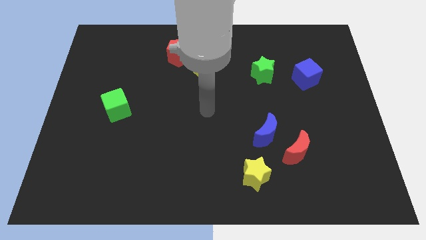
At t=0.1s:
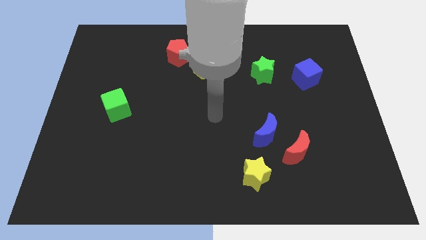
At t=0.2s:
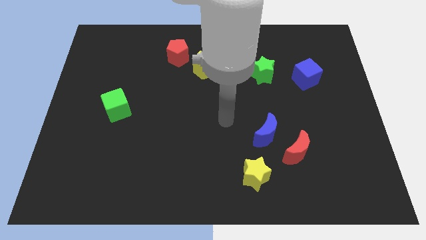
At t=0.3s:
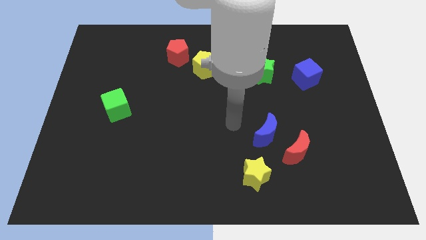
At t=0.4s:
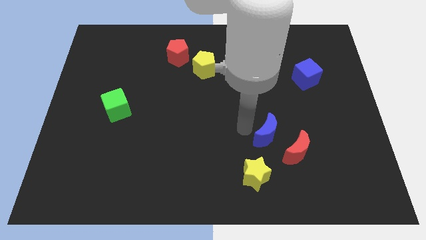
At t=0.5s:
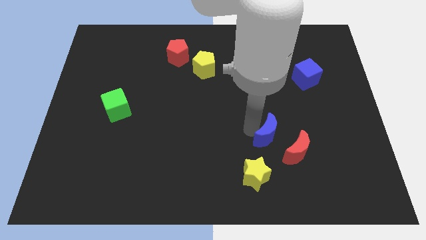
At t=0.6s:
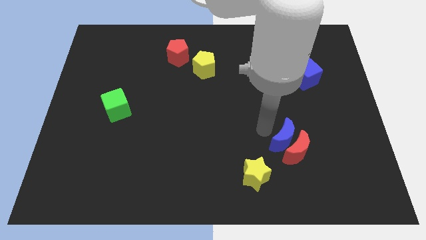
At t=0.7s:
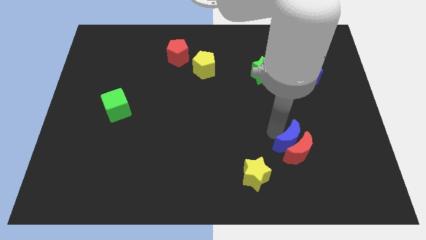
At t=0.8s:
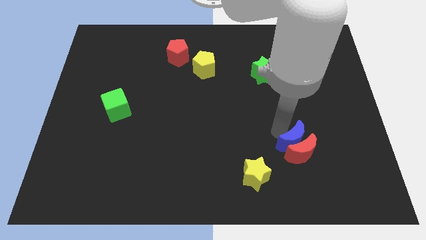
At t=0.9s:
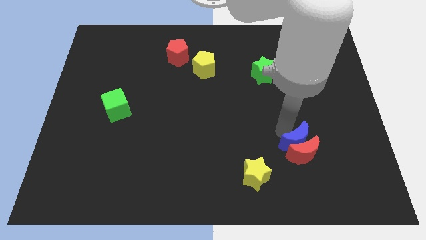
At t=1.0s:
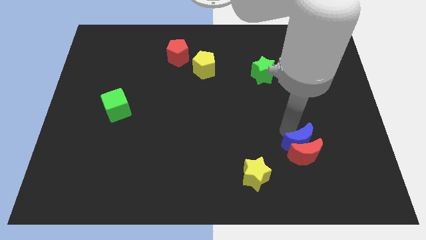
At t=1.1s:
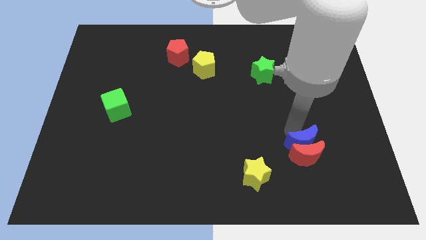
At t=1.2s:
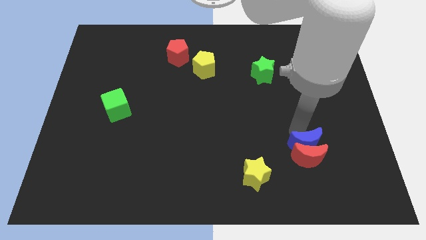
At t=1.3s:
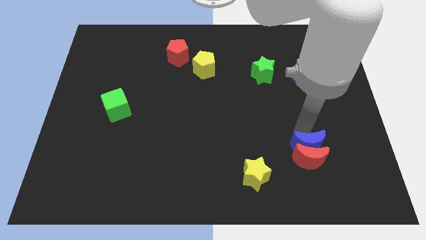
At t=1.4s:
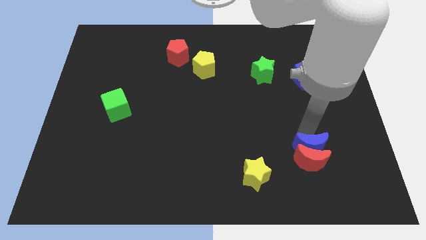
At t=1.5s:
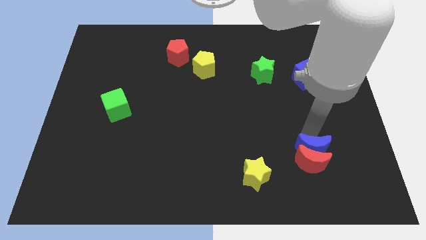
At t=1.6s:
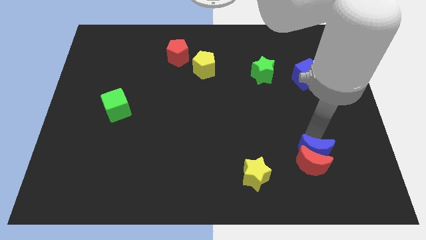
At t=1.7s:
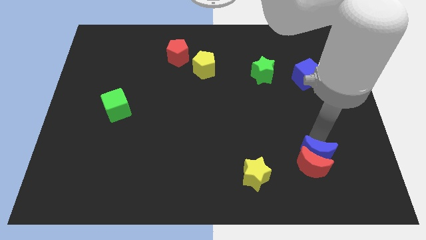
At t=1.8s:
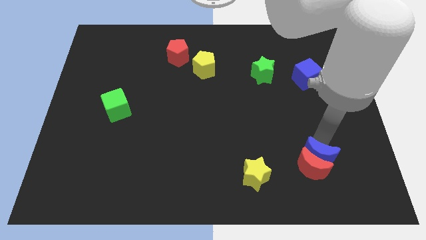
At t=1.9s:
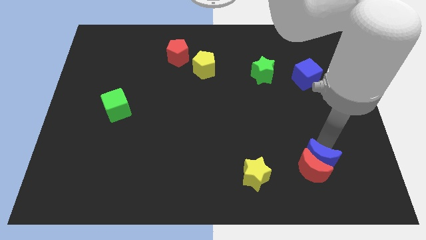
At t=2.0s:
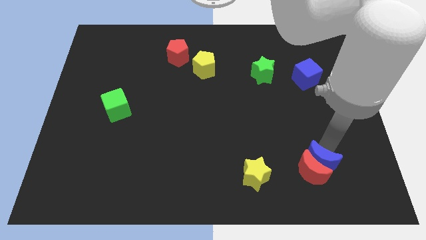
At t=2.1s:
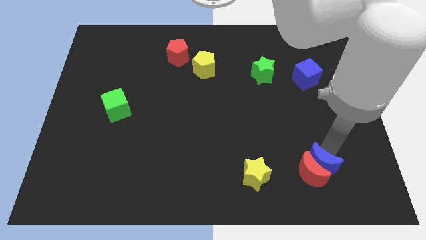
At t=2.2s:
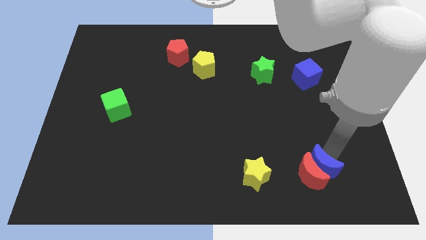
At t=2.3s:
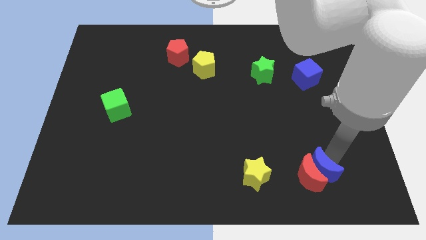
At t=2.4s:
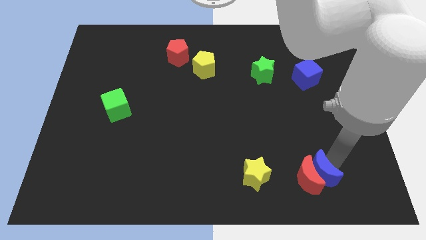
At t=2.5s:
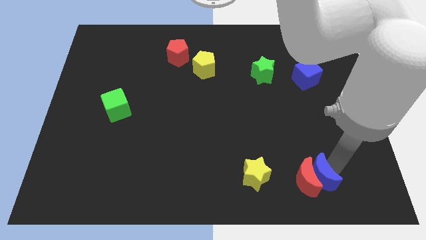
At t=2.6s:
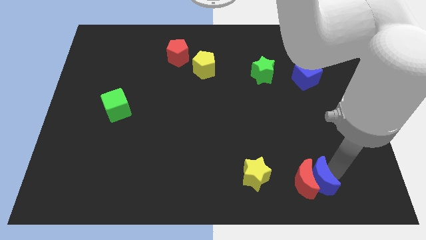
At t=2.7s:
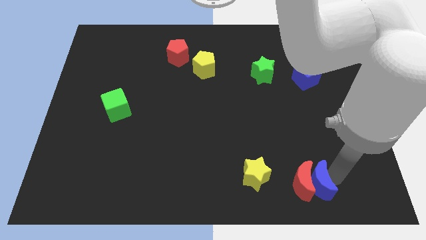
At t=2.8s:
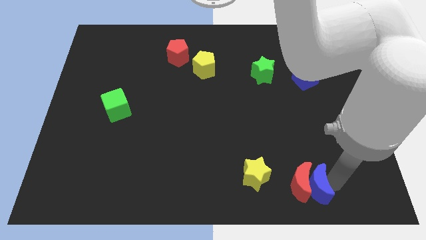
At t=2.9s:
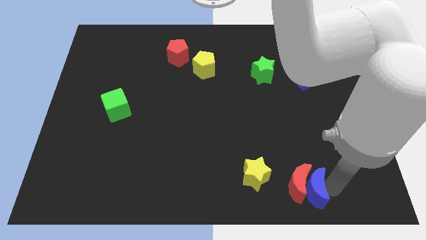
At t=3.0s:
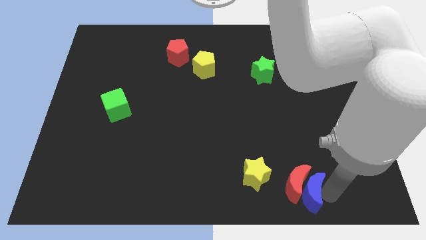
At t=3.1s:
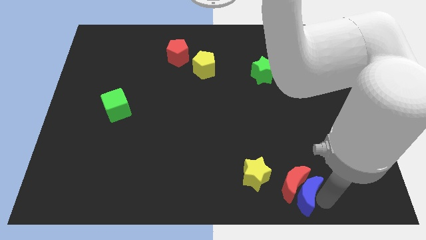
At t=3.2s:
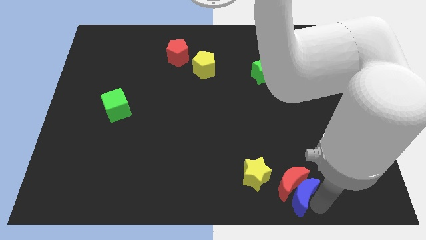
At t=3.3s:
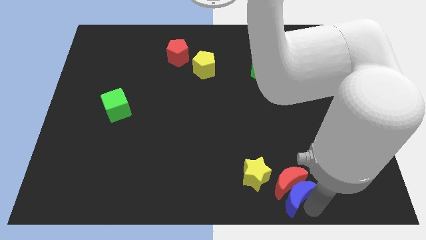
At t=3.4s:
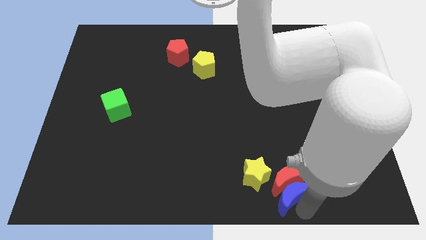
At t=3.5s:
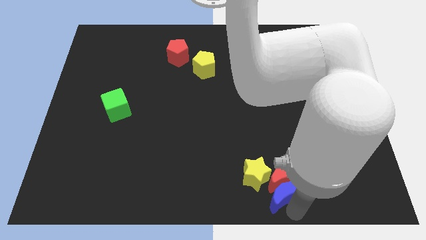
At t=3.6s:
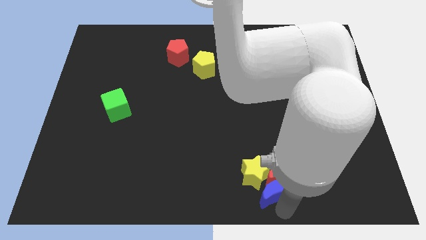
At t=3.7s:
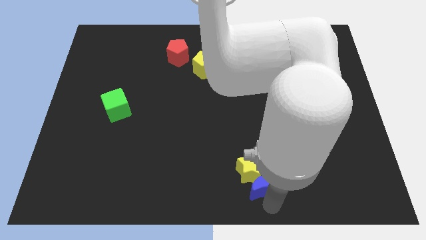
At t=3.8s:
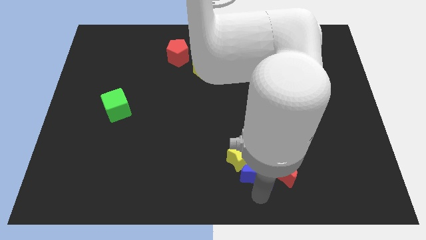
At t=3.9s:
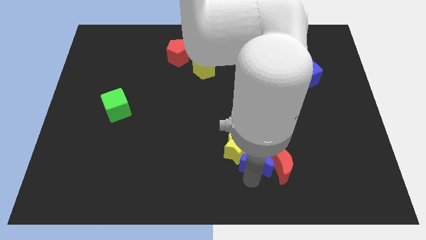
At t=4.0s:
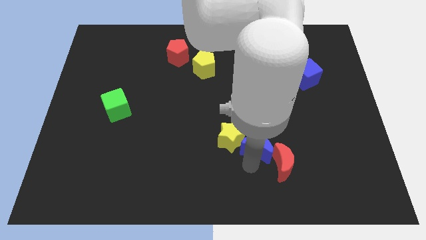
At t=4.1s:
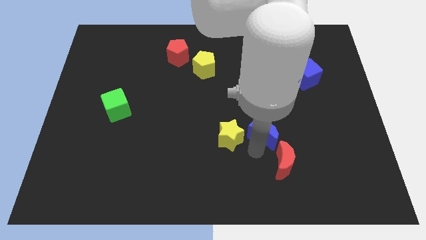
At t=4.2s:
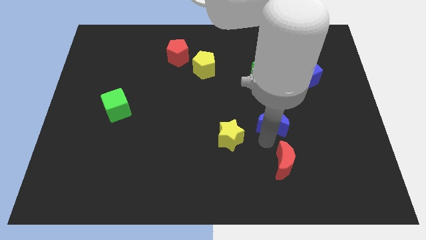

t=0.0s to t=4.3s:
separate the red moon from the blue moon

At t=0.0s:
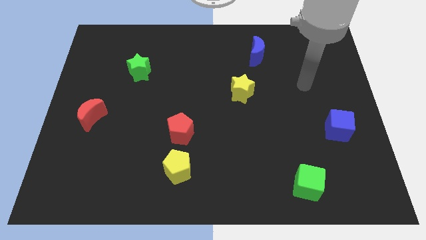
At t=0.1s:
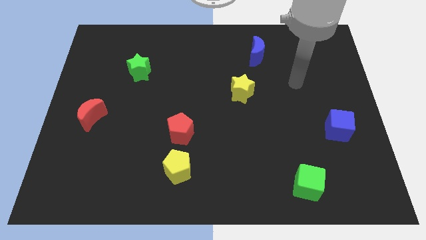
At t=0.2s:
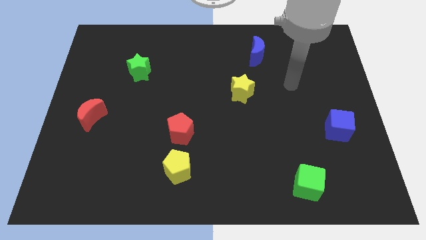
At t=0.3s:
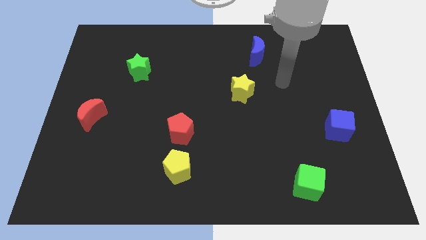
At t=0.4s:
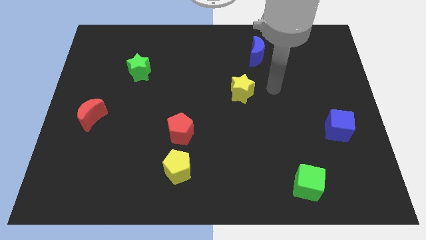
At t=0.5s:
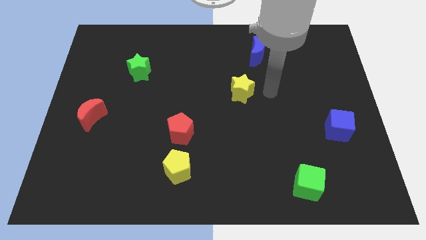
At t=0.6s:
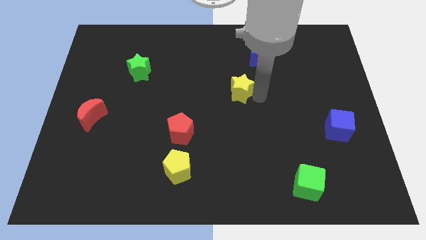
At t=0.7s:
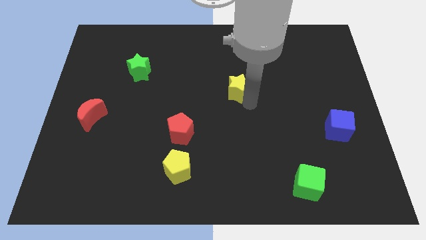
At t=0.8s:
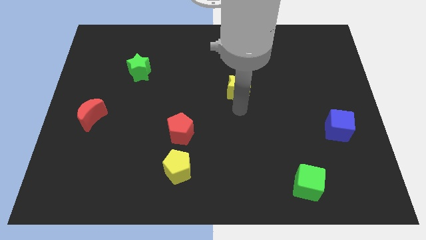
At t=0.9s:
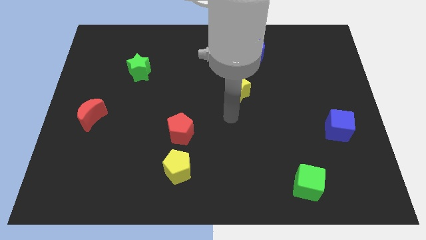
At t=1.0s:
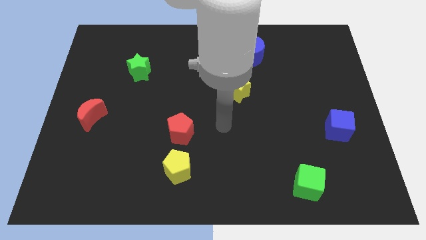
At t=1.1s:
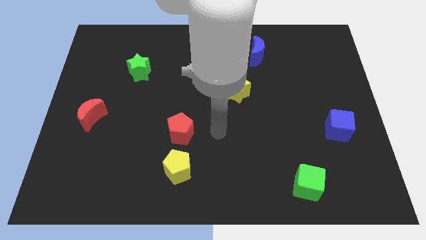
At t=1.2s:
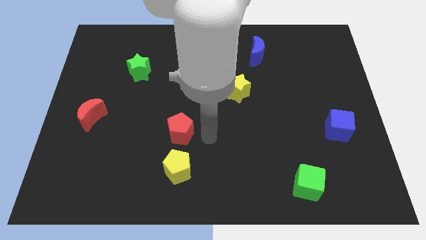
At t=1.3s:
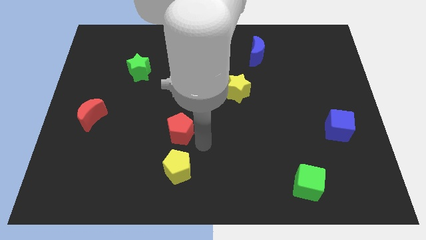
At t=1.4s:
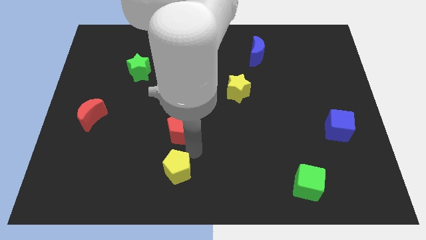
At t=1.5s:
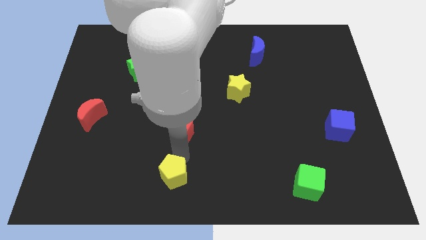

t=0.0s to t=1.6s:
pull the red pentagon apart from the yellow pentagon

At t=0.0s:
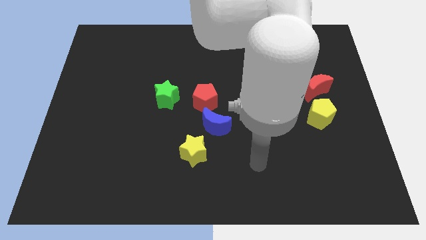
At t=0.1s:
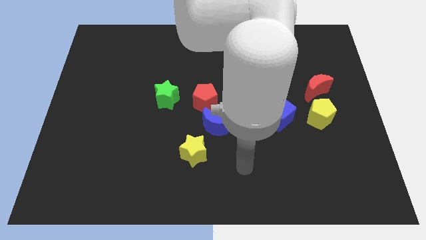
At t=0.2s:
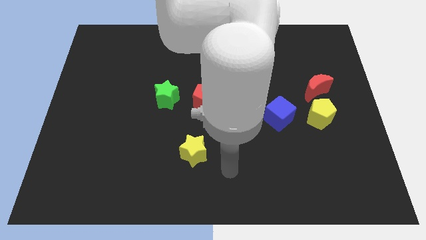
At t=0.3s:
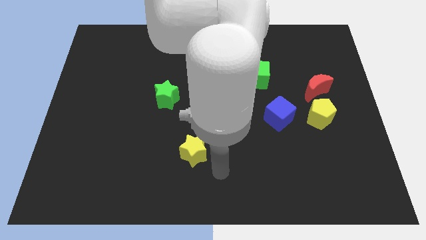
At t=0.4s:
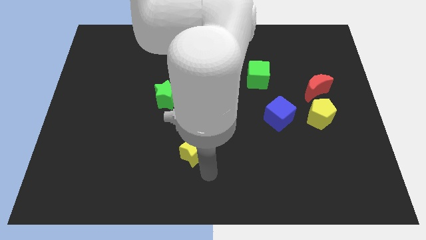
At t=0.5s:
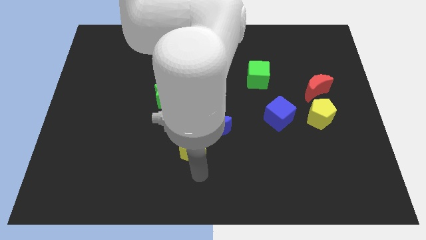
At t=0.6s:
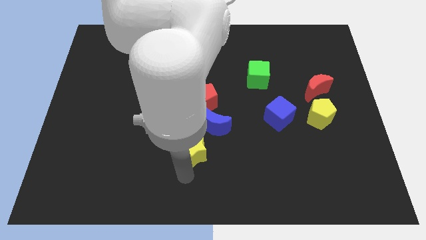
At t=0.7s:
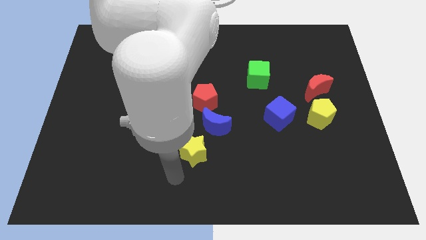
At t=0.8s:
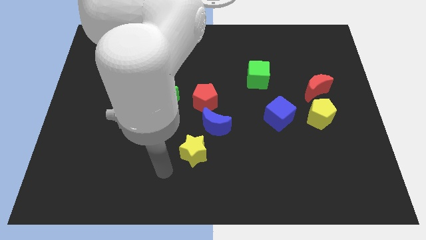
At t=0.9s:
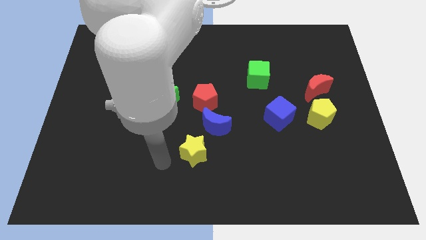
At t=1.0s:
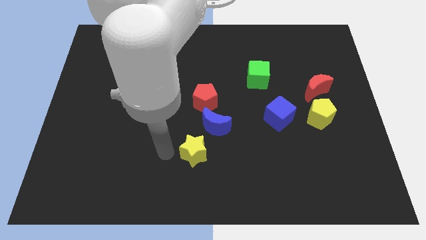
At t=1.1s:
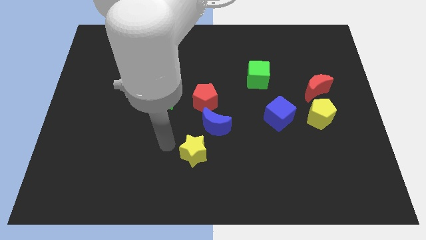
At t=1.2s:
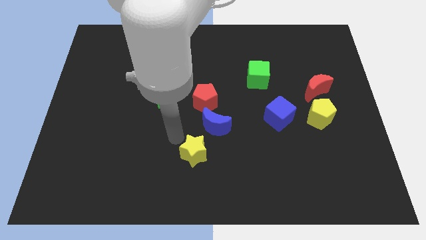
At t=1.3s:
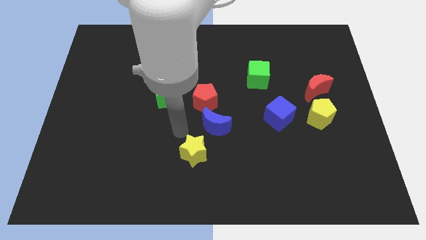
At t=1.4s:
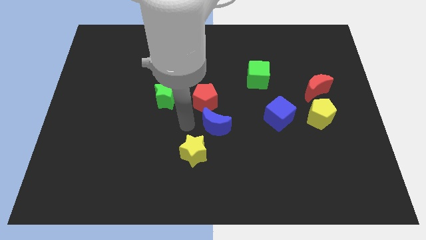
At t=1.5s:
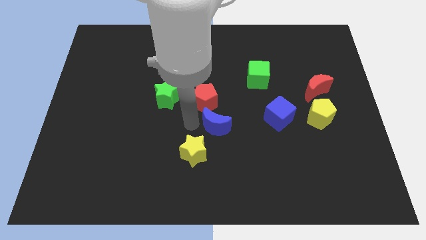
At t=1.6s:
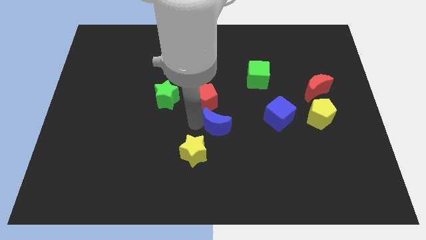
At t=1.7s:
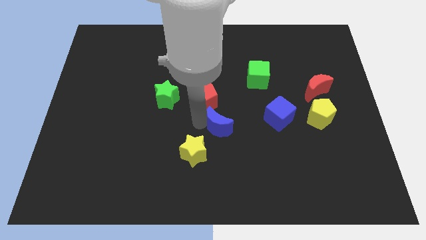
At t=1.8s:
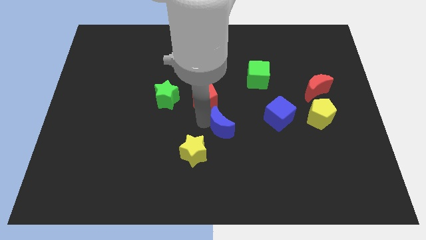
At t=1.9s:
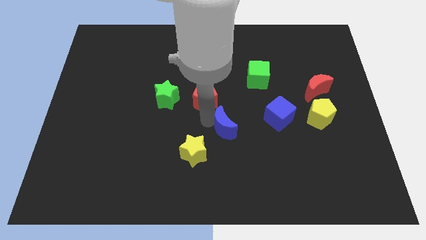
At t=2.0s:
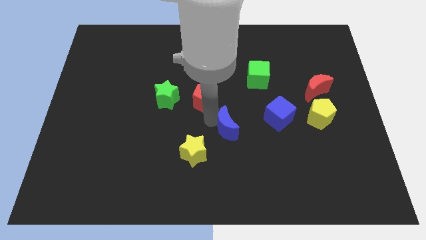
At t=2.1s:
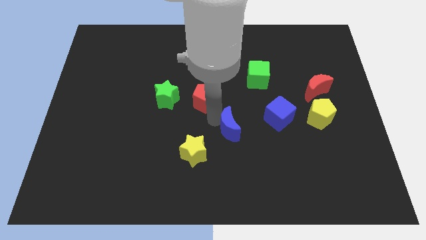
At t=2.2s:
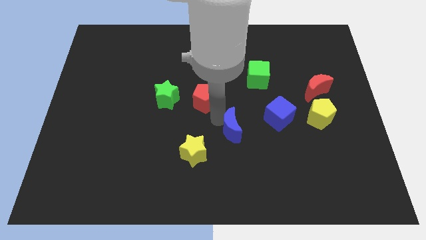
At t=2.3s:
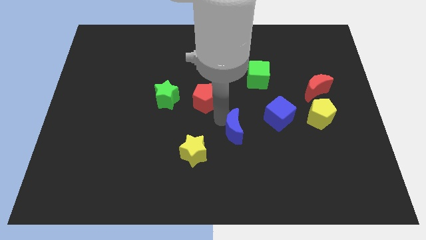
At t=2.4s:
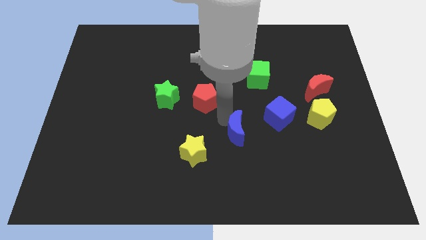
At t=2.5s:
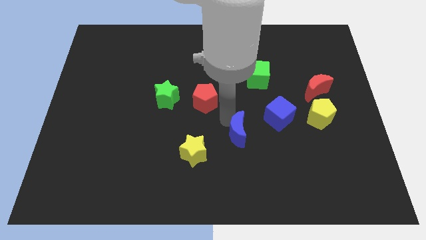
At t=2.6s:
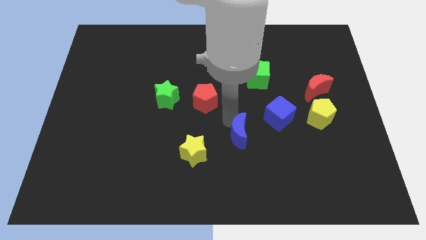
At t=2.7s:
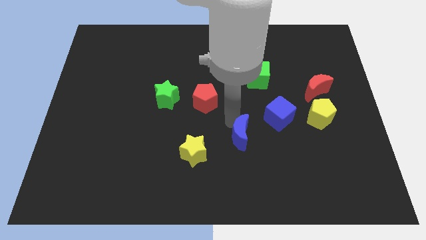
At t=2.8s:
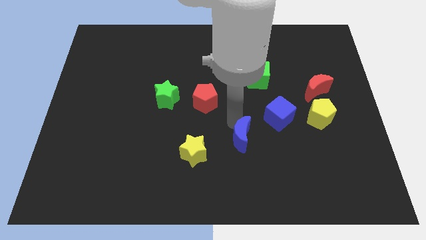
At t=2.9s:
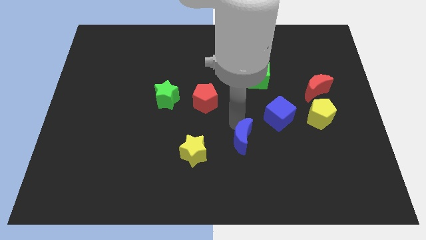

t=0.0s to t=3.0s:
move the blue moon away from the red pentagon and yellow star

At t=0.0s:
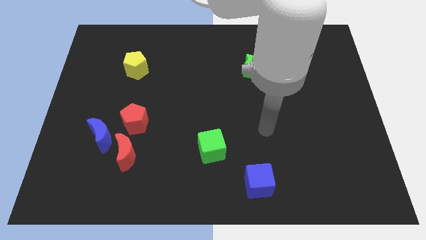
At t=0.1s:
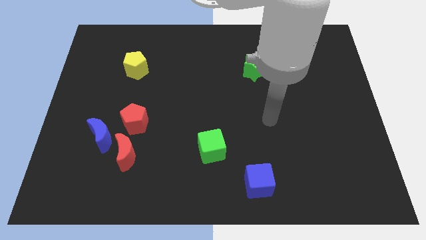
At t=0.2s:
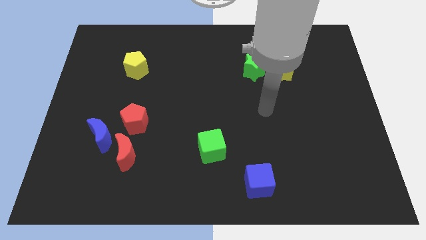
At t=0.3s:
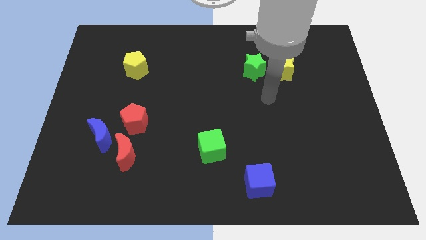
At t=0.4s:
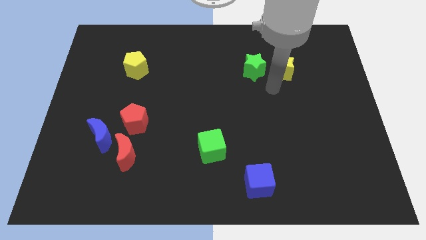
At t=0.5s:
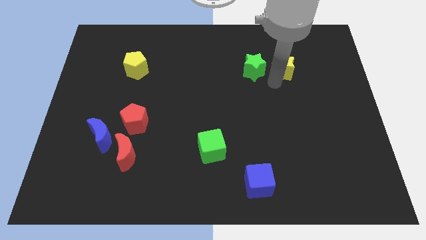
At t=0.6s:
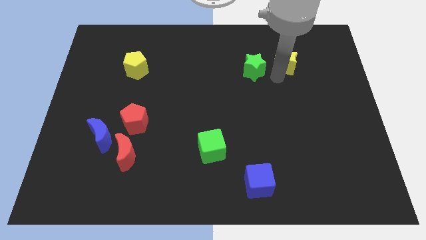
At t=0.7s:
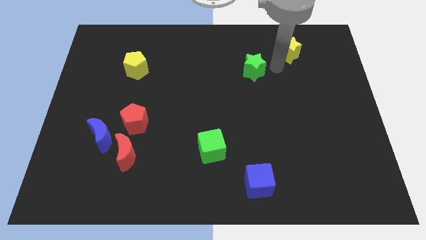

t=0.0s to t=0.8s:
pull the green star apart from the yellow star
